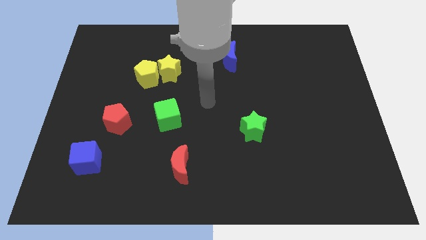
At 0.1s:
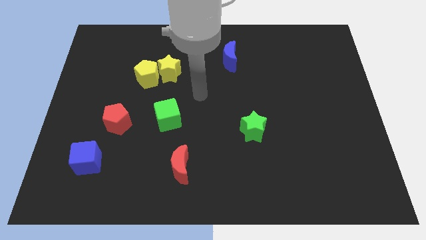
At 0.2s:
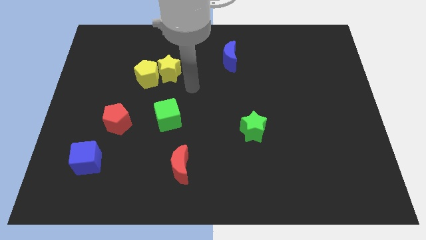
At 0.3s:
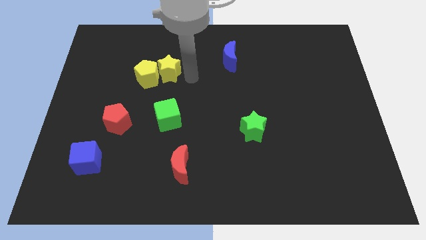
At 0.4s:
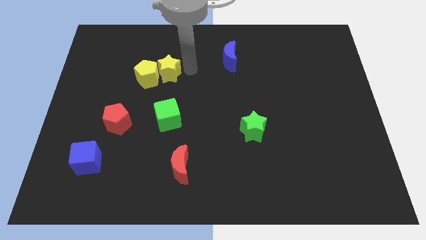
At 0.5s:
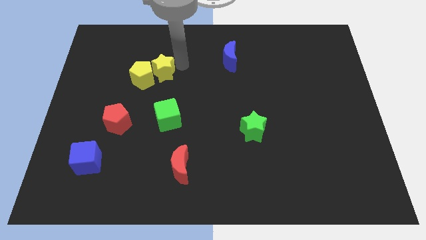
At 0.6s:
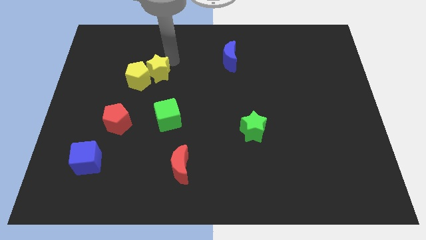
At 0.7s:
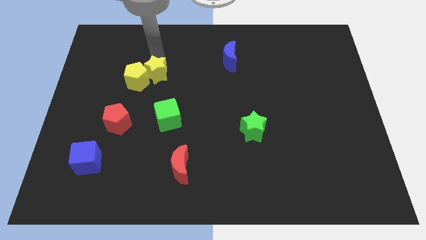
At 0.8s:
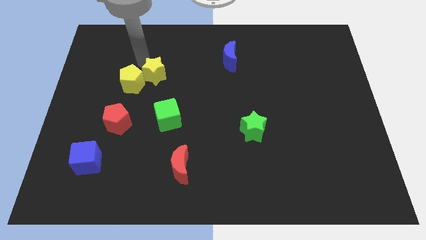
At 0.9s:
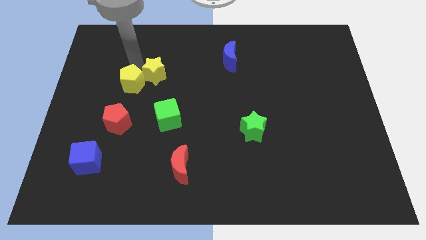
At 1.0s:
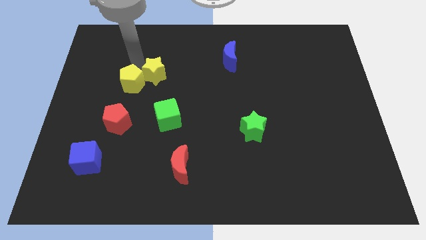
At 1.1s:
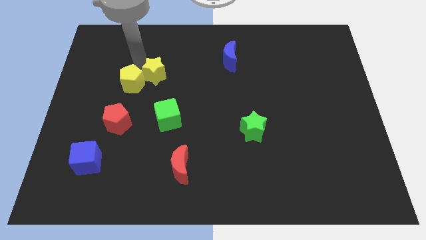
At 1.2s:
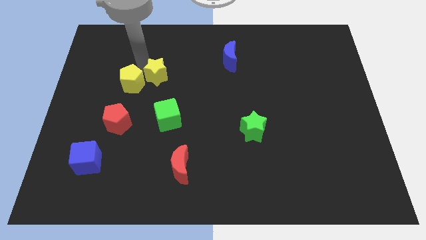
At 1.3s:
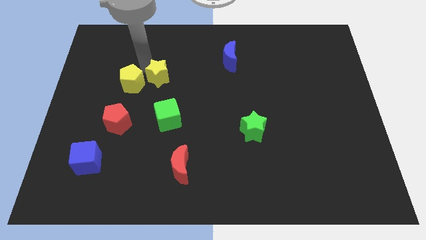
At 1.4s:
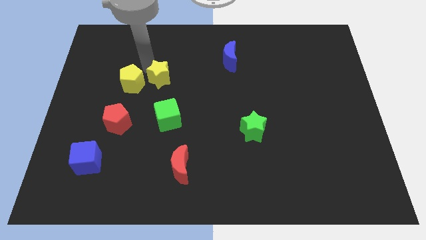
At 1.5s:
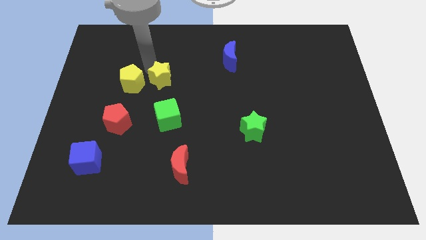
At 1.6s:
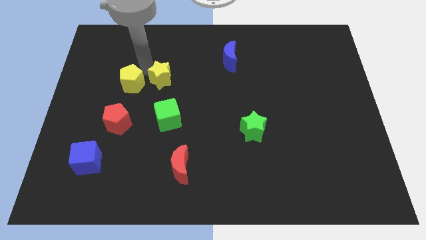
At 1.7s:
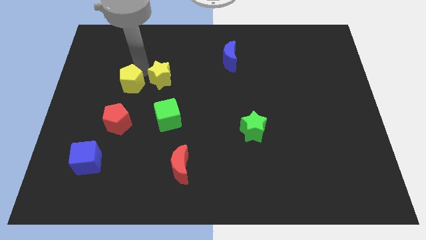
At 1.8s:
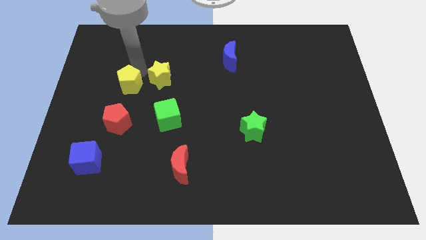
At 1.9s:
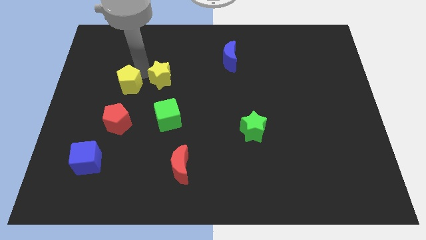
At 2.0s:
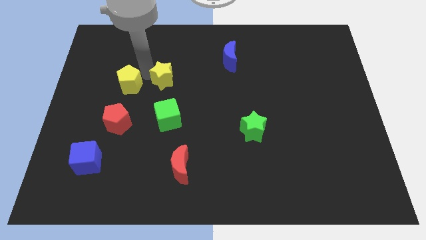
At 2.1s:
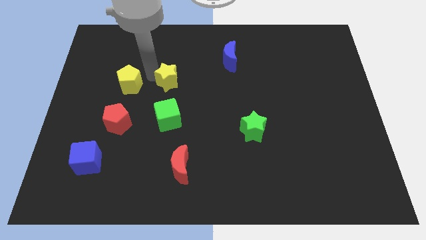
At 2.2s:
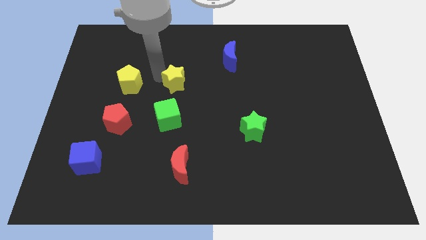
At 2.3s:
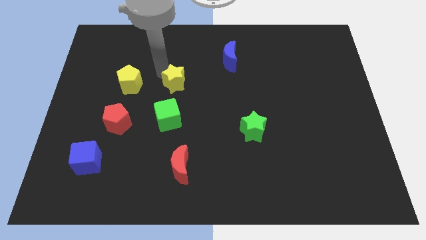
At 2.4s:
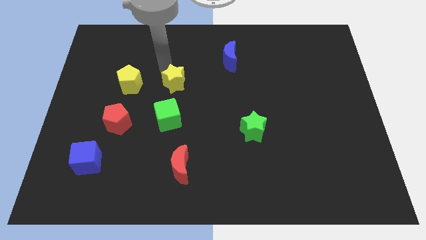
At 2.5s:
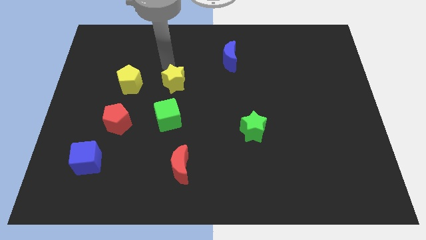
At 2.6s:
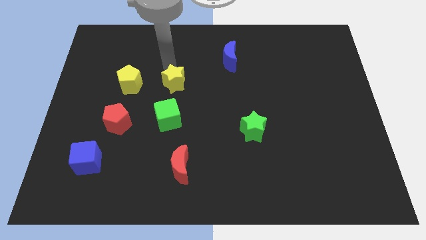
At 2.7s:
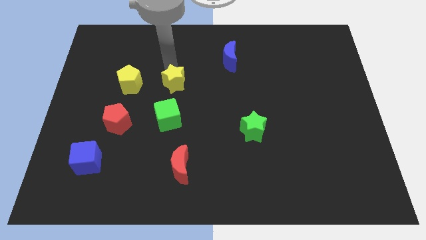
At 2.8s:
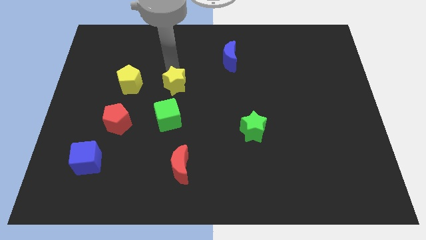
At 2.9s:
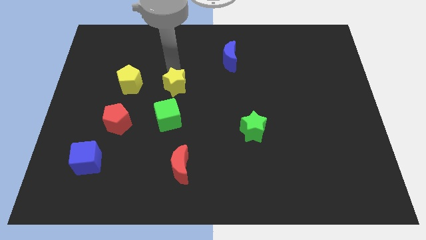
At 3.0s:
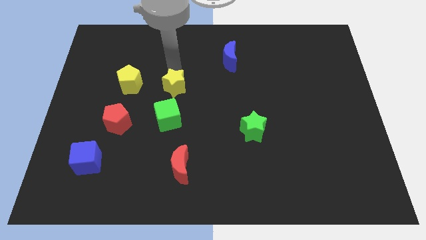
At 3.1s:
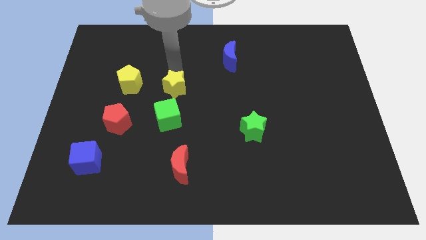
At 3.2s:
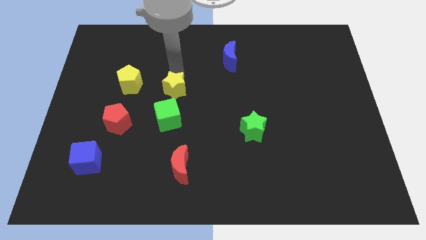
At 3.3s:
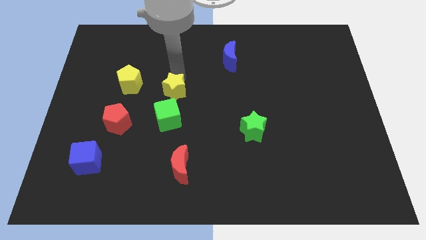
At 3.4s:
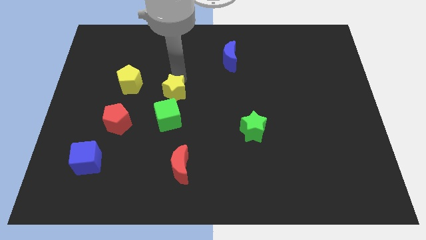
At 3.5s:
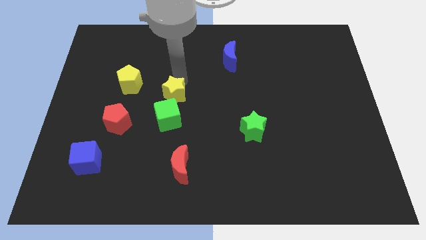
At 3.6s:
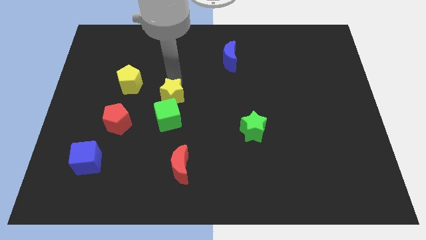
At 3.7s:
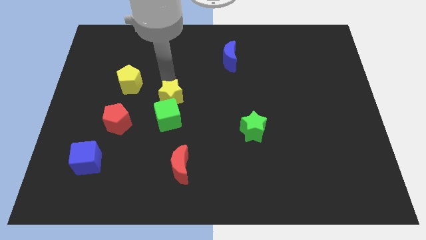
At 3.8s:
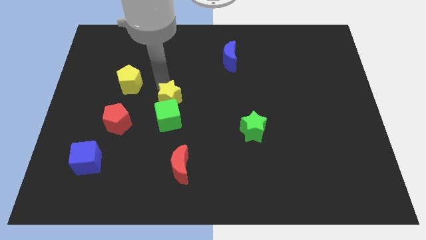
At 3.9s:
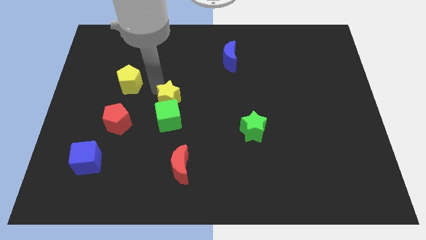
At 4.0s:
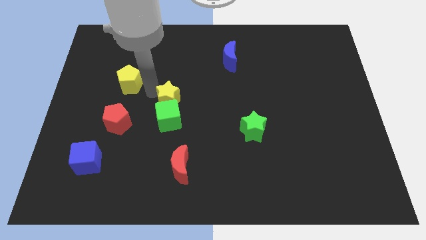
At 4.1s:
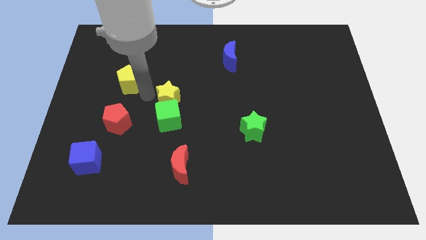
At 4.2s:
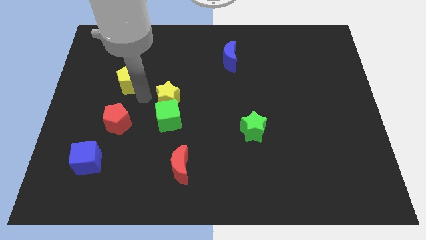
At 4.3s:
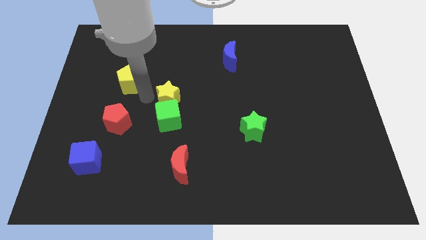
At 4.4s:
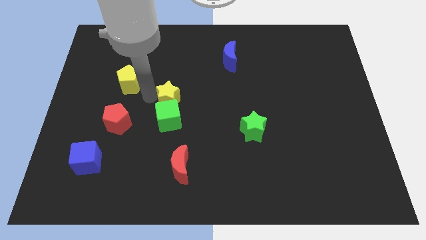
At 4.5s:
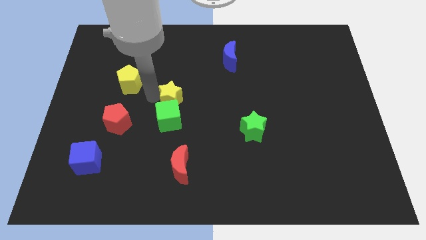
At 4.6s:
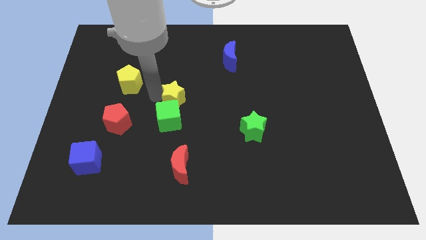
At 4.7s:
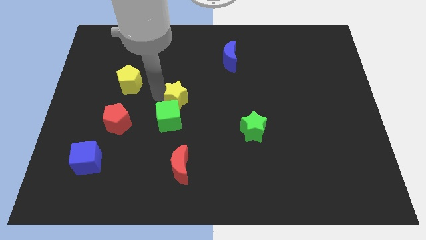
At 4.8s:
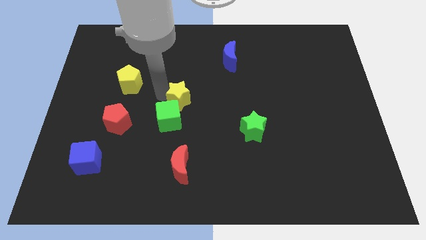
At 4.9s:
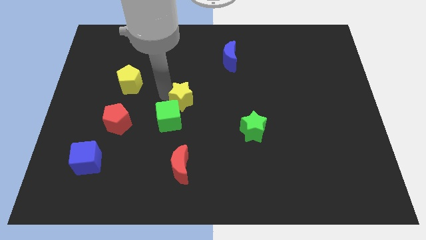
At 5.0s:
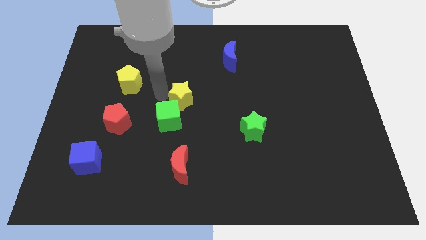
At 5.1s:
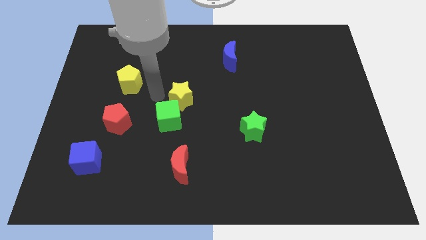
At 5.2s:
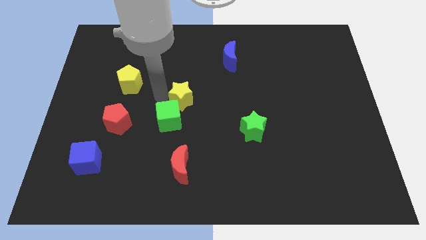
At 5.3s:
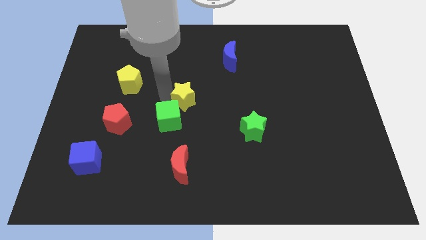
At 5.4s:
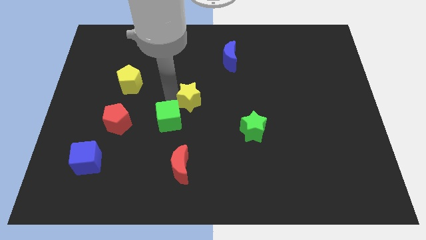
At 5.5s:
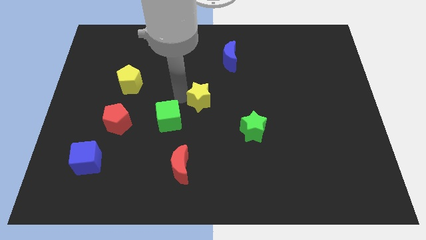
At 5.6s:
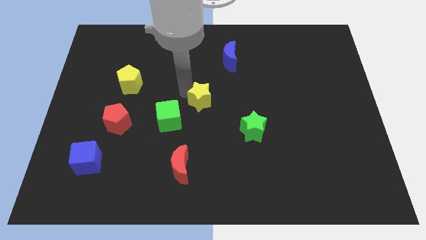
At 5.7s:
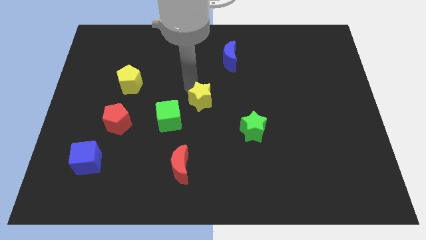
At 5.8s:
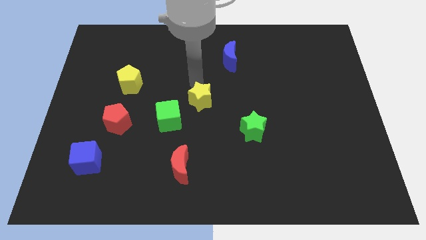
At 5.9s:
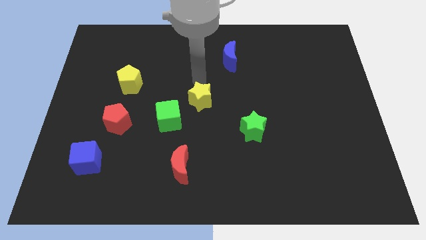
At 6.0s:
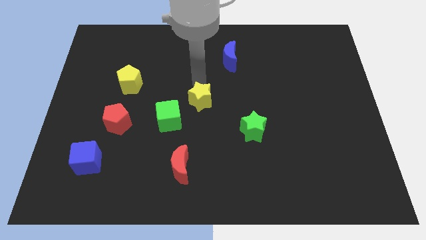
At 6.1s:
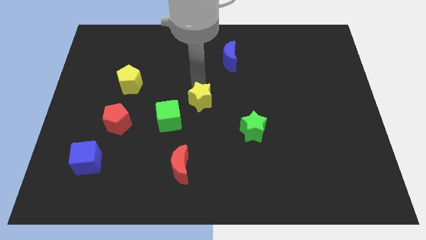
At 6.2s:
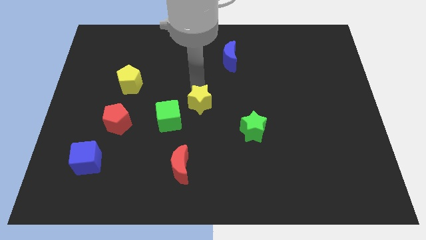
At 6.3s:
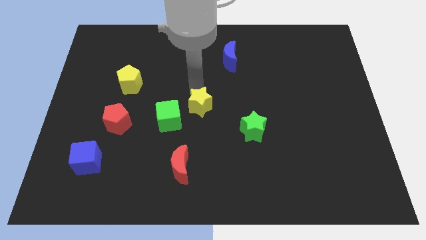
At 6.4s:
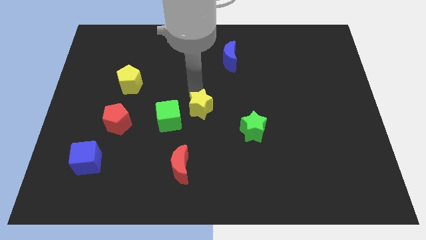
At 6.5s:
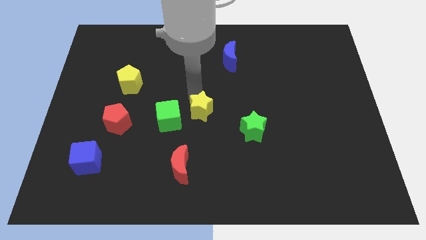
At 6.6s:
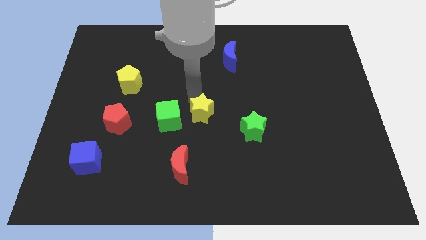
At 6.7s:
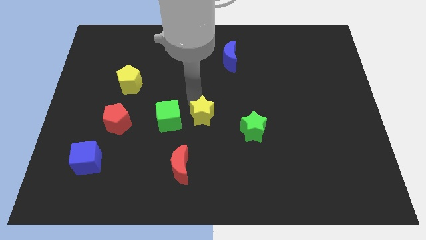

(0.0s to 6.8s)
slide the yellow star to the left of the green star
